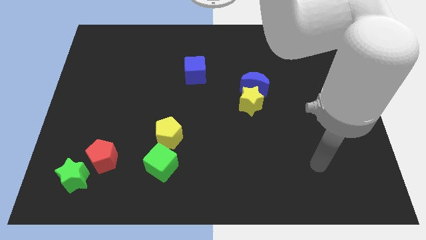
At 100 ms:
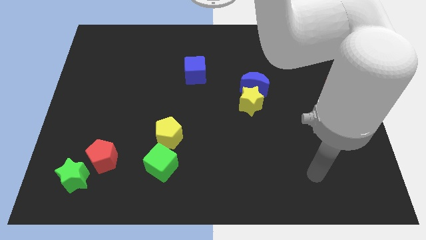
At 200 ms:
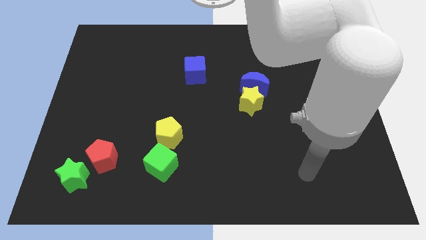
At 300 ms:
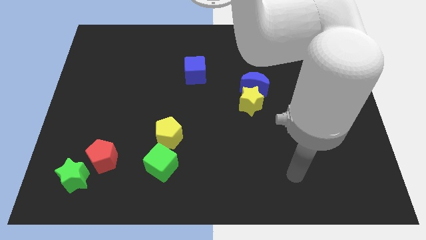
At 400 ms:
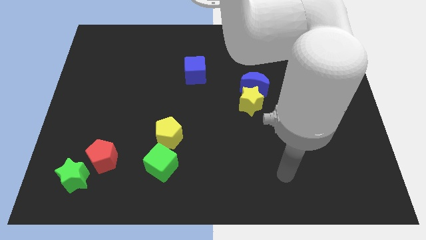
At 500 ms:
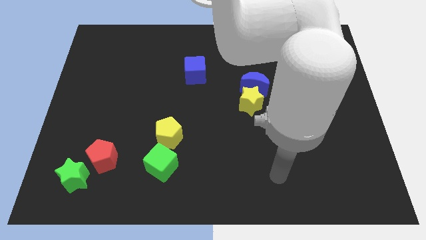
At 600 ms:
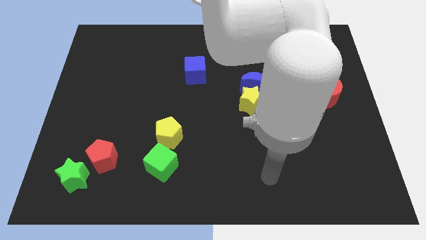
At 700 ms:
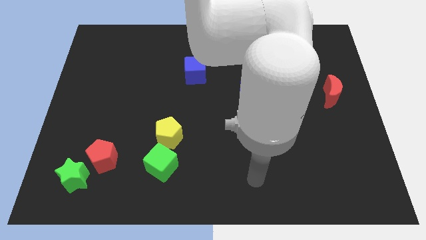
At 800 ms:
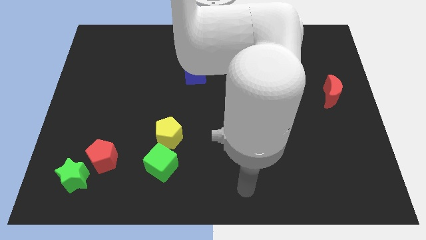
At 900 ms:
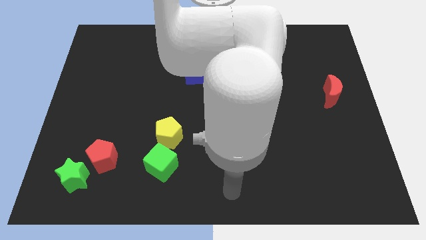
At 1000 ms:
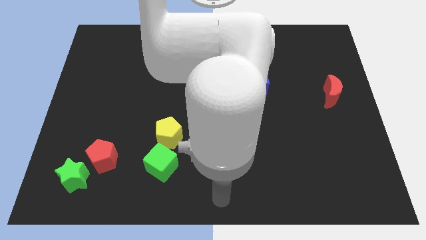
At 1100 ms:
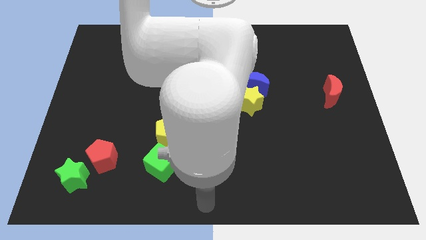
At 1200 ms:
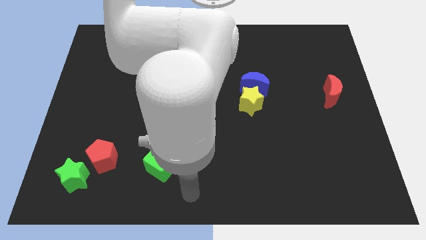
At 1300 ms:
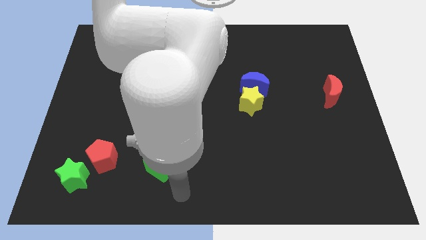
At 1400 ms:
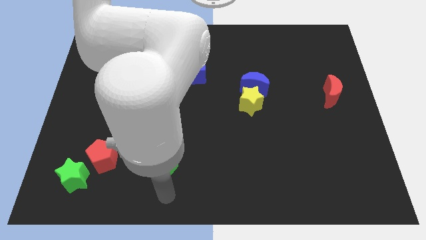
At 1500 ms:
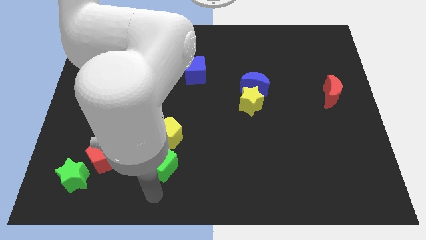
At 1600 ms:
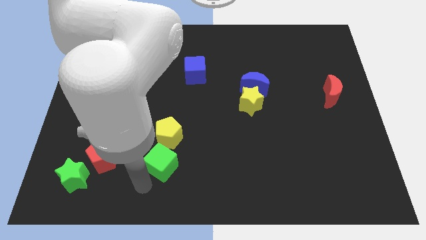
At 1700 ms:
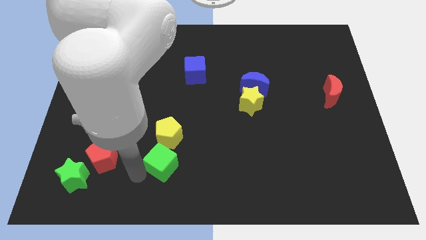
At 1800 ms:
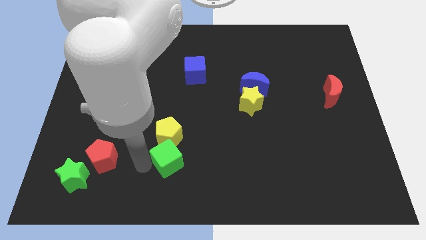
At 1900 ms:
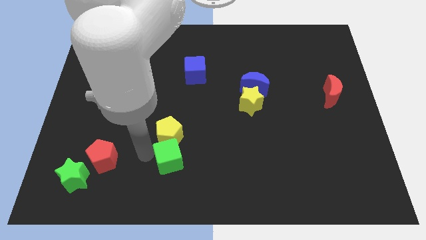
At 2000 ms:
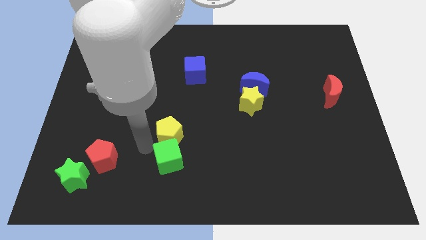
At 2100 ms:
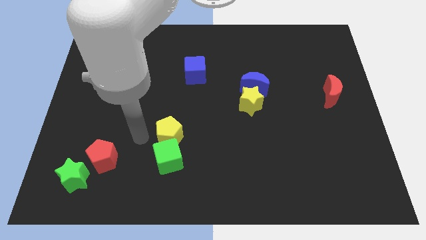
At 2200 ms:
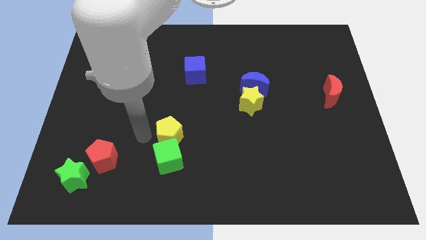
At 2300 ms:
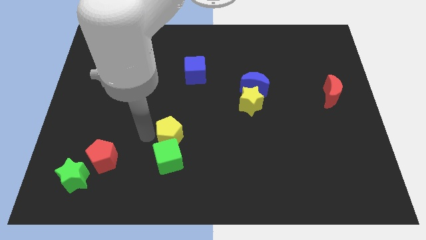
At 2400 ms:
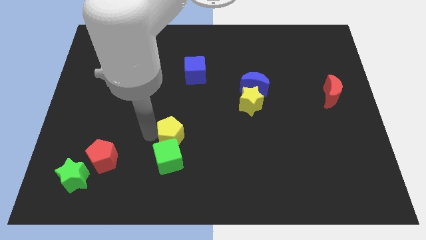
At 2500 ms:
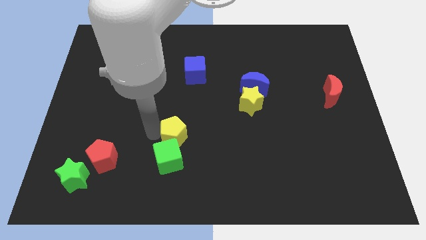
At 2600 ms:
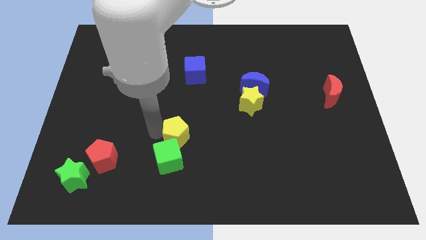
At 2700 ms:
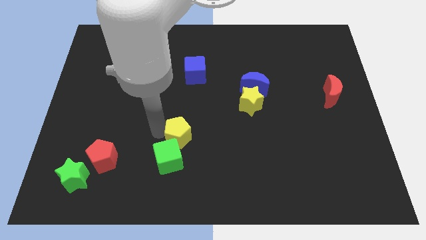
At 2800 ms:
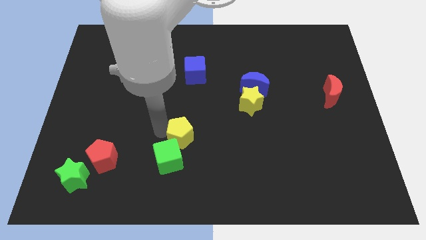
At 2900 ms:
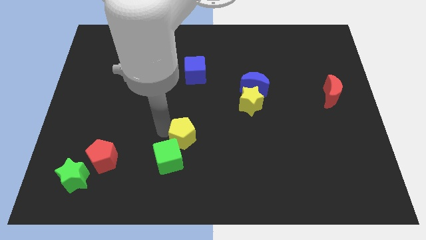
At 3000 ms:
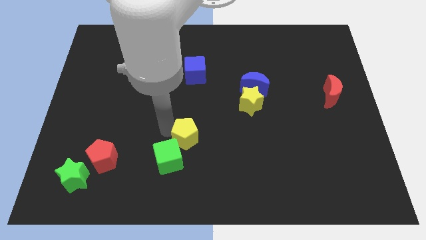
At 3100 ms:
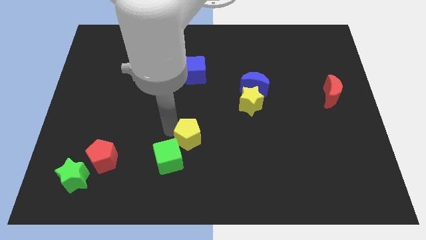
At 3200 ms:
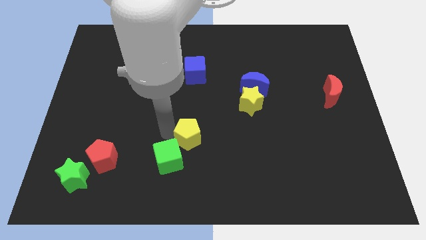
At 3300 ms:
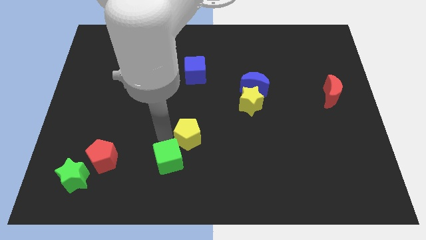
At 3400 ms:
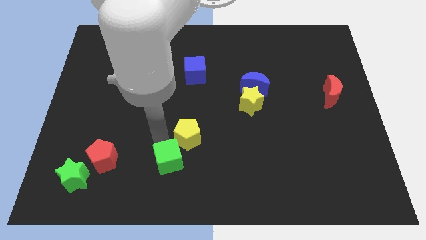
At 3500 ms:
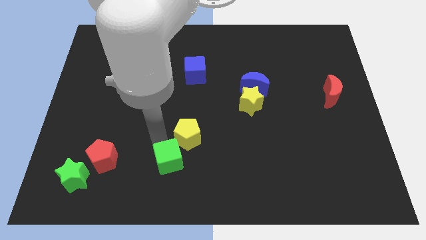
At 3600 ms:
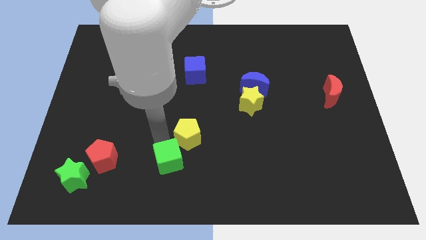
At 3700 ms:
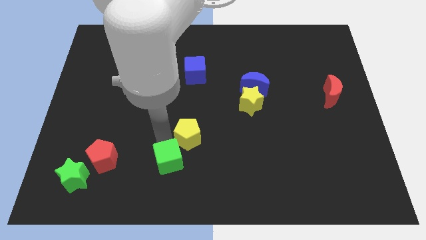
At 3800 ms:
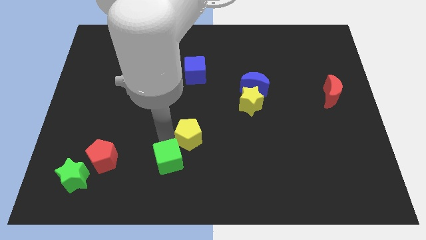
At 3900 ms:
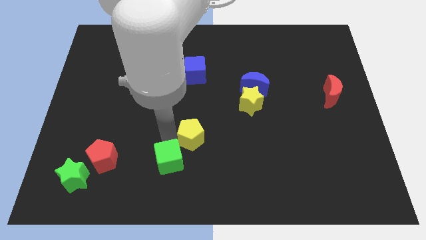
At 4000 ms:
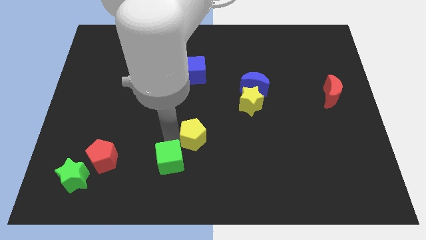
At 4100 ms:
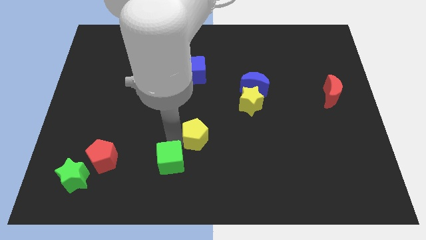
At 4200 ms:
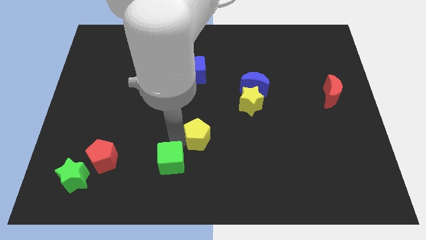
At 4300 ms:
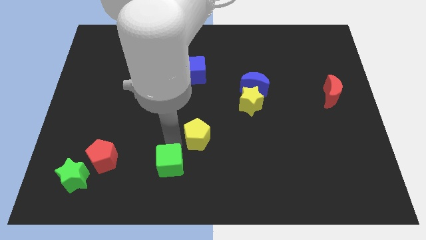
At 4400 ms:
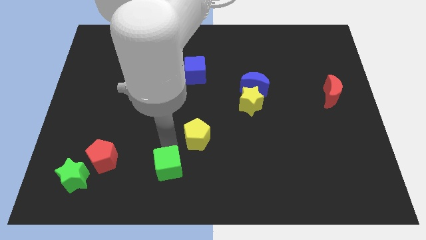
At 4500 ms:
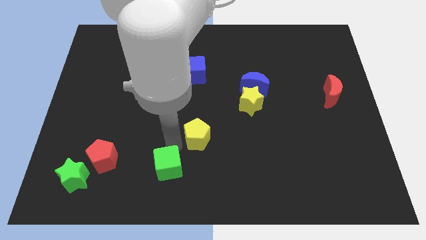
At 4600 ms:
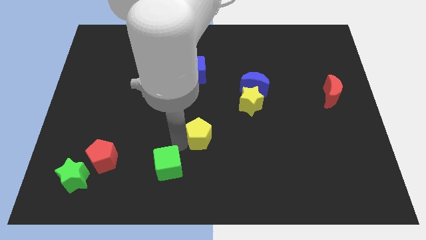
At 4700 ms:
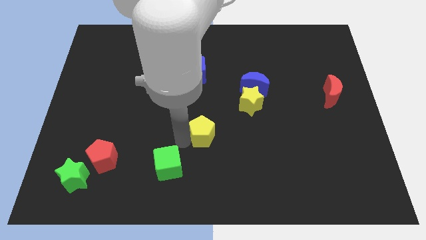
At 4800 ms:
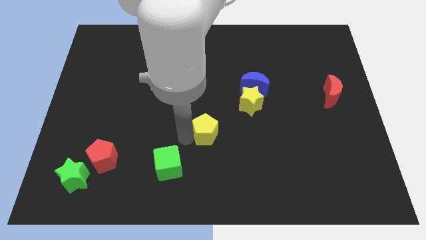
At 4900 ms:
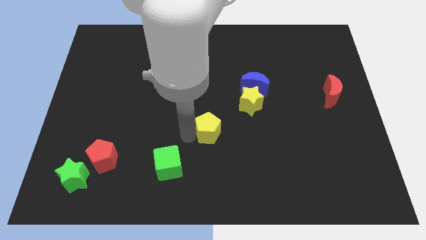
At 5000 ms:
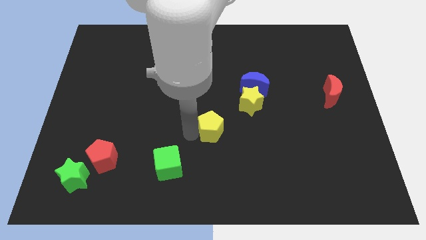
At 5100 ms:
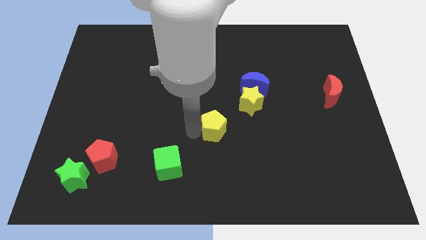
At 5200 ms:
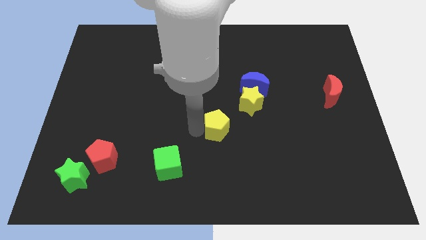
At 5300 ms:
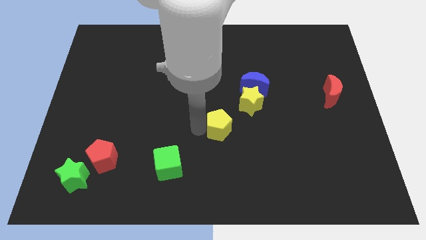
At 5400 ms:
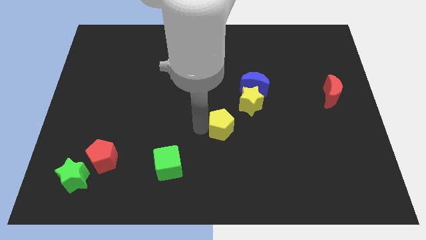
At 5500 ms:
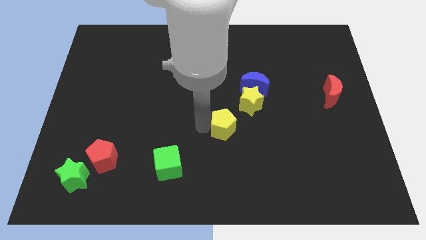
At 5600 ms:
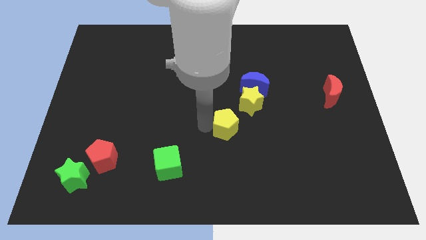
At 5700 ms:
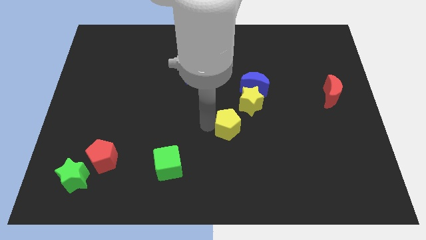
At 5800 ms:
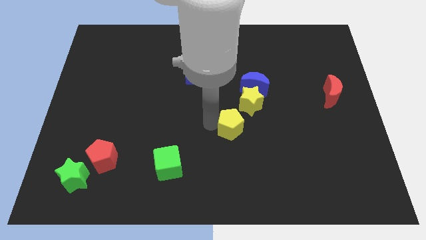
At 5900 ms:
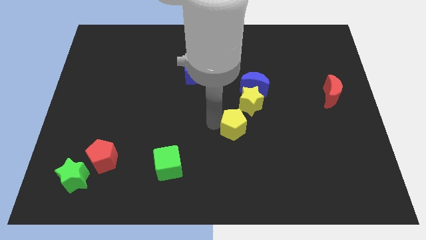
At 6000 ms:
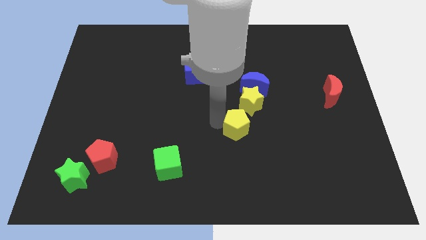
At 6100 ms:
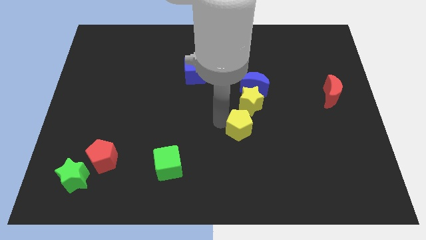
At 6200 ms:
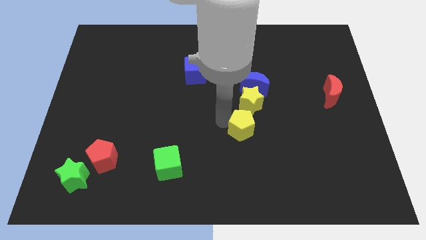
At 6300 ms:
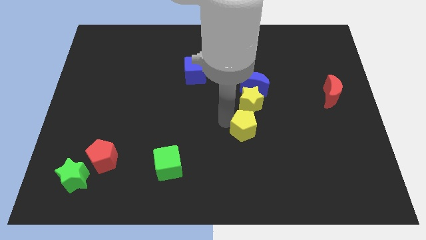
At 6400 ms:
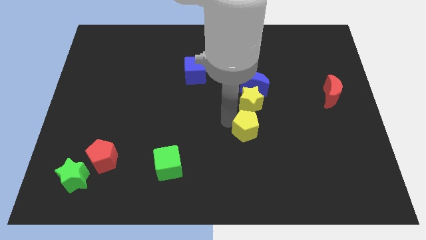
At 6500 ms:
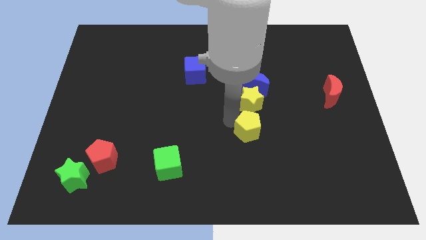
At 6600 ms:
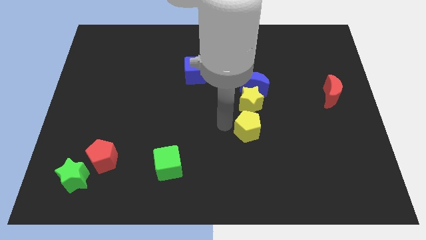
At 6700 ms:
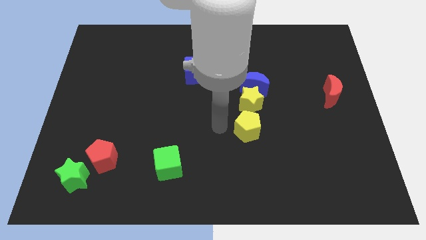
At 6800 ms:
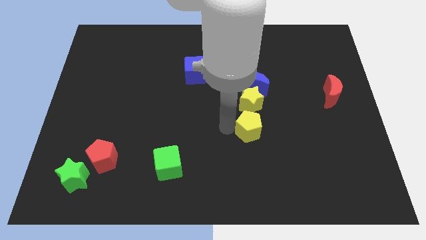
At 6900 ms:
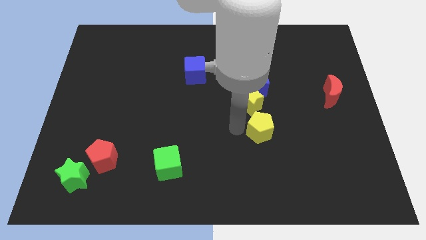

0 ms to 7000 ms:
move the yellow pentagon to the right

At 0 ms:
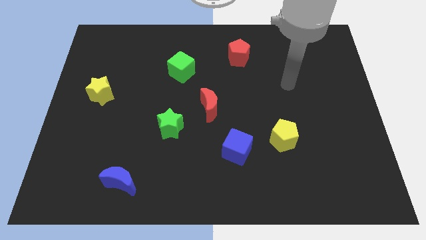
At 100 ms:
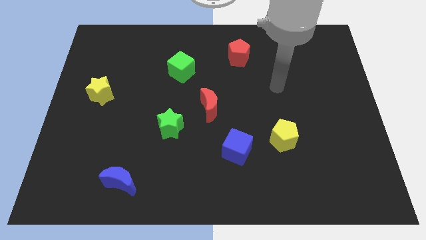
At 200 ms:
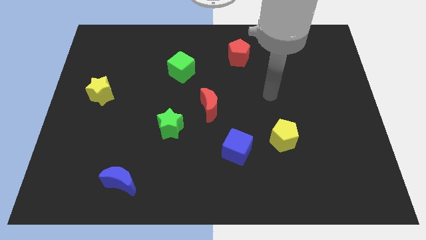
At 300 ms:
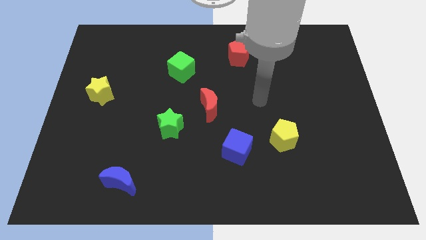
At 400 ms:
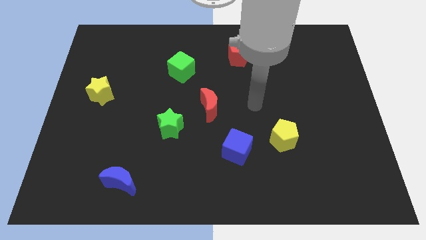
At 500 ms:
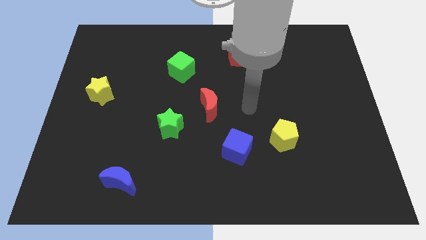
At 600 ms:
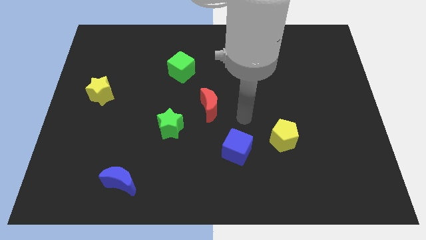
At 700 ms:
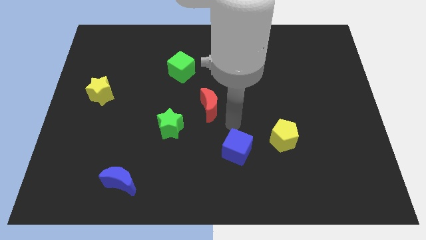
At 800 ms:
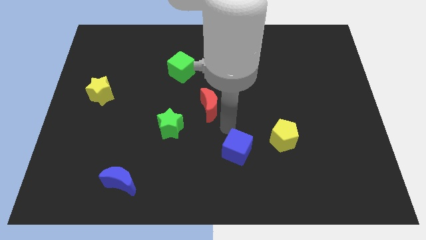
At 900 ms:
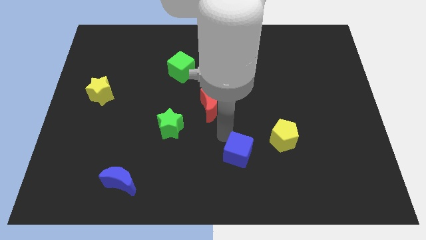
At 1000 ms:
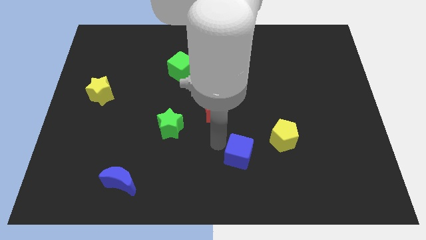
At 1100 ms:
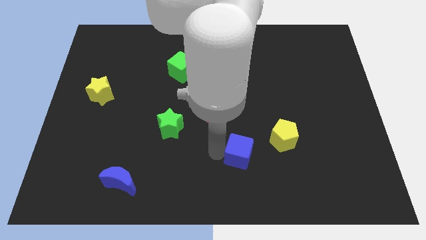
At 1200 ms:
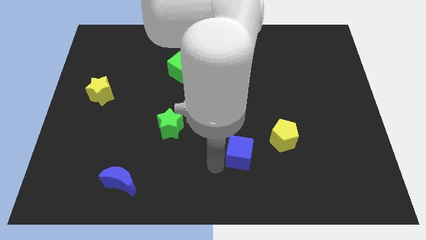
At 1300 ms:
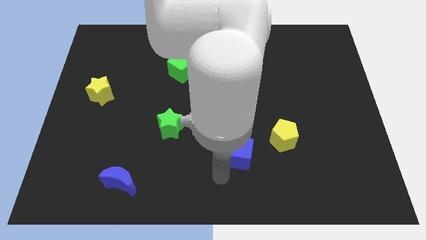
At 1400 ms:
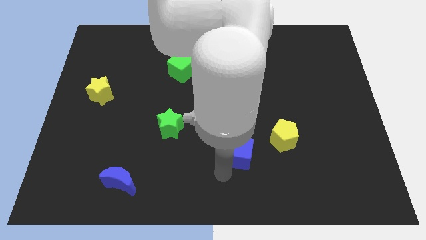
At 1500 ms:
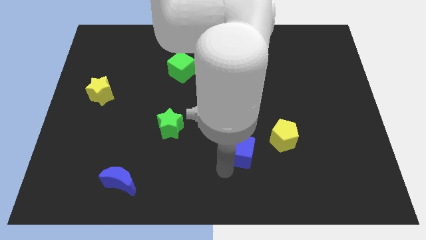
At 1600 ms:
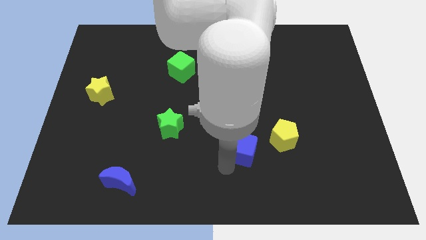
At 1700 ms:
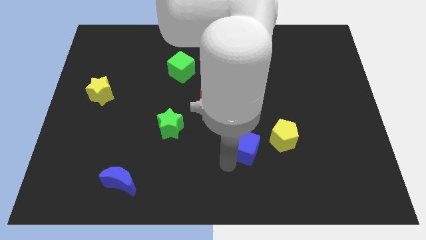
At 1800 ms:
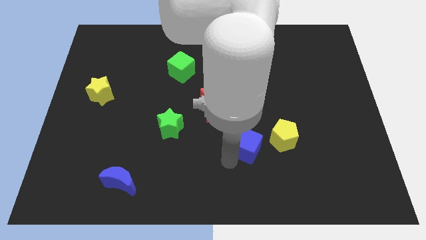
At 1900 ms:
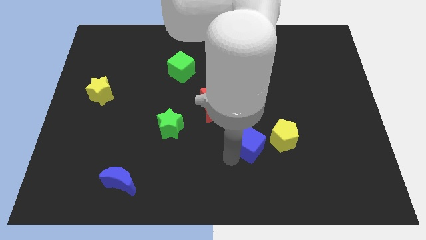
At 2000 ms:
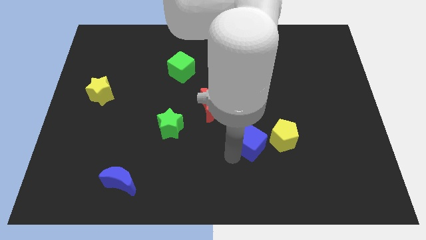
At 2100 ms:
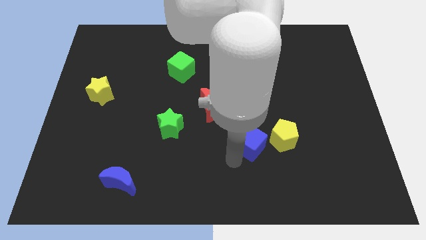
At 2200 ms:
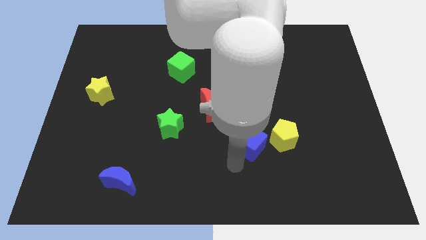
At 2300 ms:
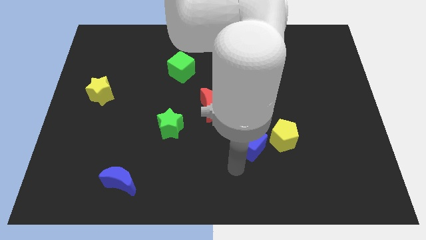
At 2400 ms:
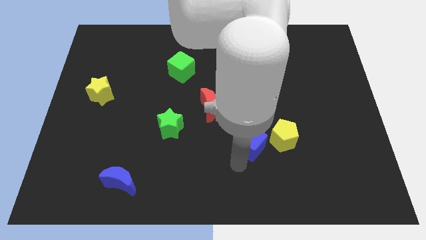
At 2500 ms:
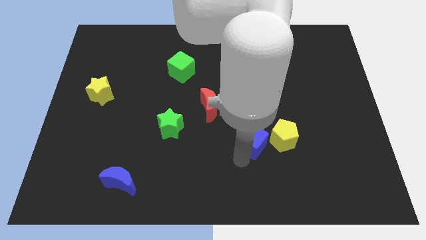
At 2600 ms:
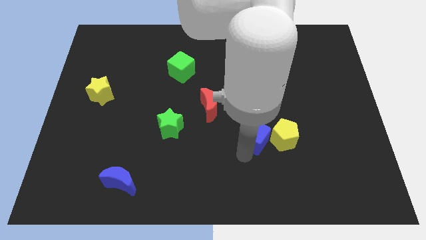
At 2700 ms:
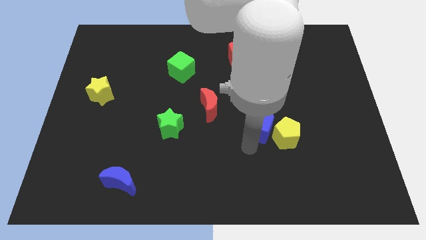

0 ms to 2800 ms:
slightly slide the blue cube up and to the right diagonally
